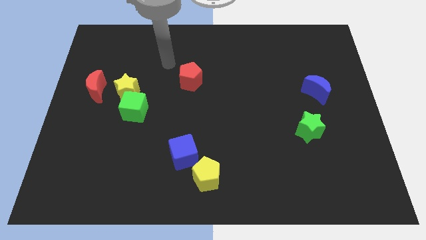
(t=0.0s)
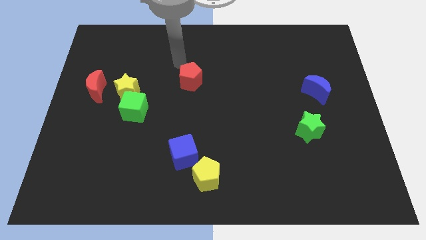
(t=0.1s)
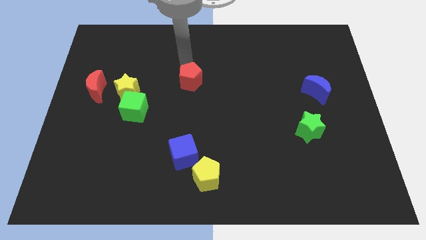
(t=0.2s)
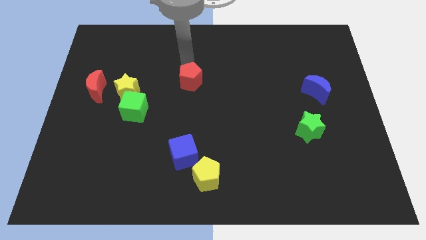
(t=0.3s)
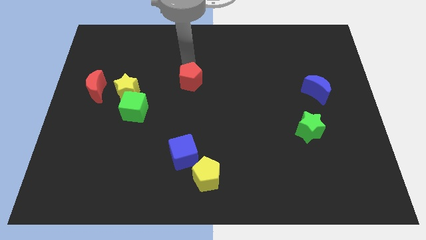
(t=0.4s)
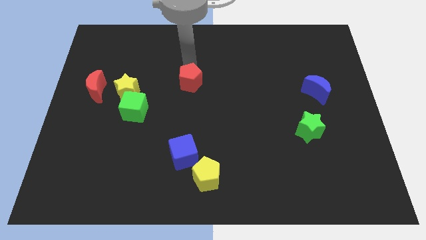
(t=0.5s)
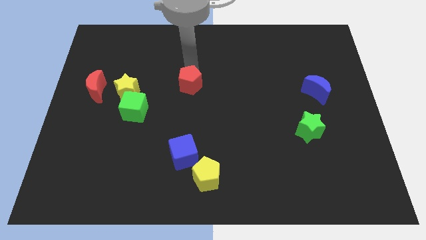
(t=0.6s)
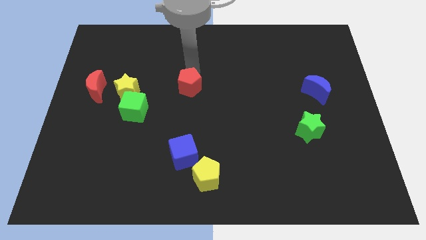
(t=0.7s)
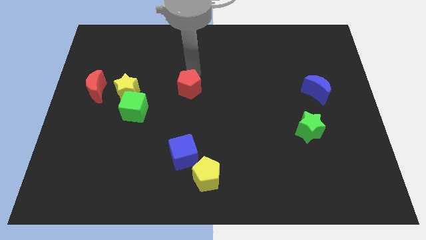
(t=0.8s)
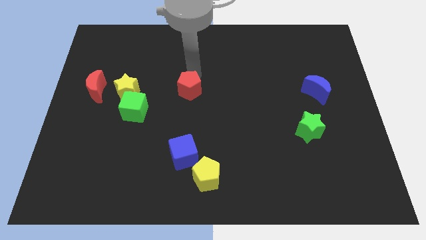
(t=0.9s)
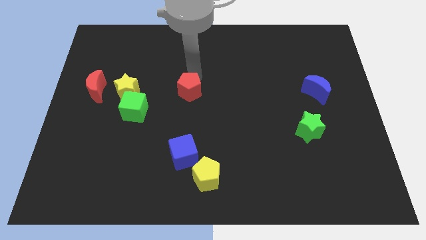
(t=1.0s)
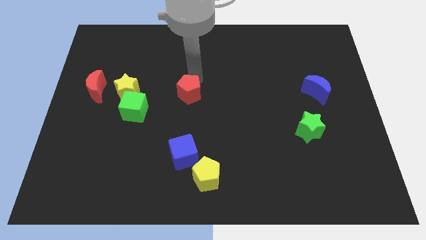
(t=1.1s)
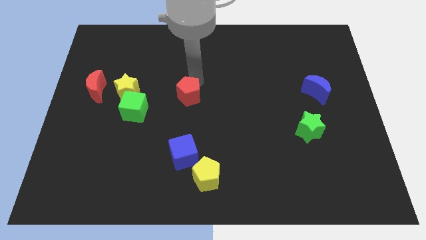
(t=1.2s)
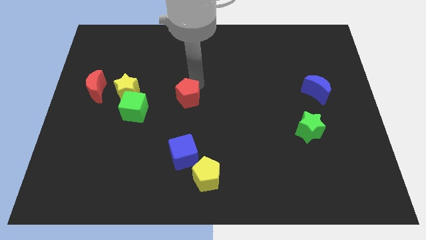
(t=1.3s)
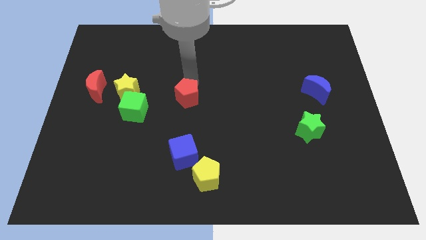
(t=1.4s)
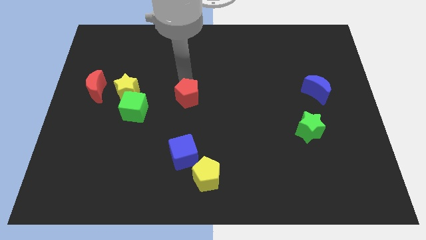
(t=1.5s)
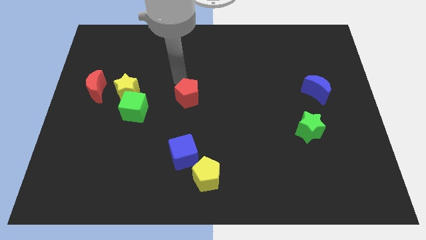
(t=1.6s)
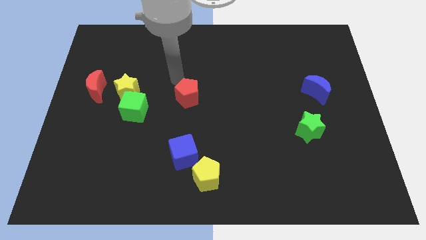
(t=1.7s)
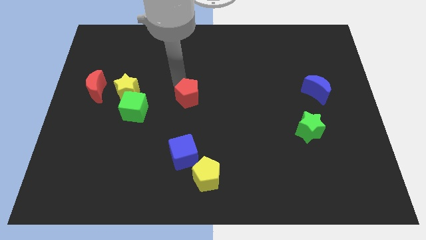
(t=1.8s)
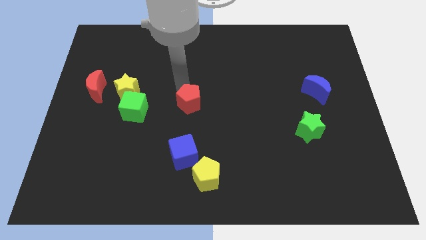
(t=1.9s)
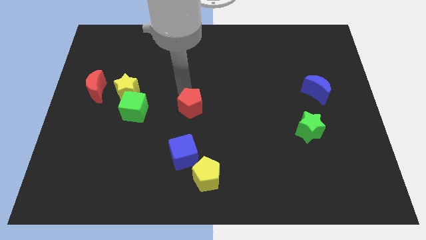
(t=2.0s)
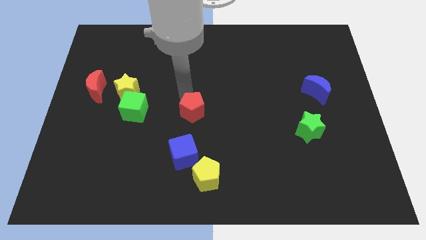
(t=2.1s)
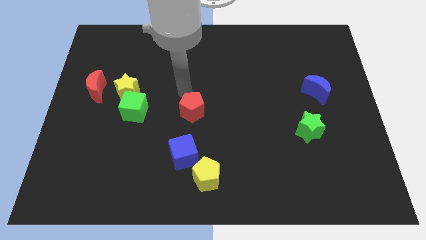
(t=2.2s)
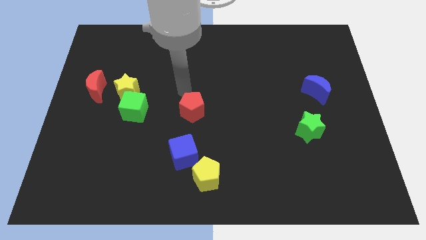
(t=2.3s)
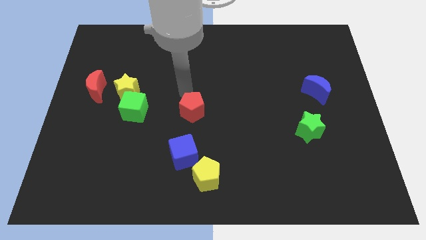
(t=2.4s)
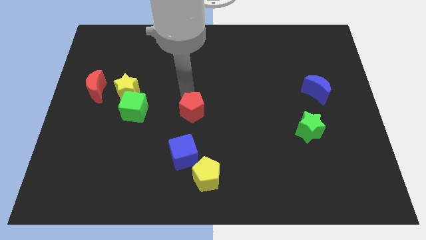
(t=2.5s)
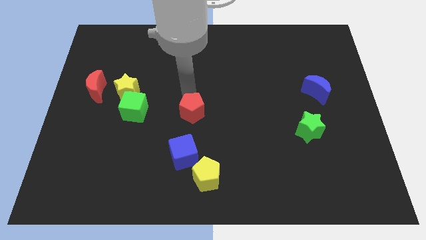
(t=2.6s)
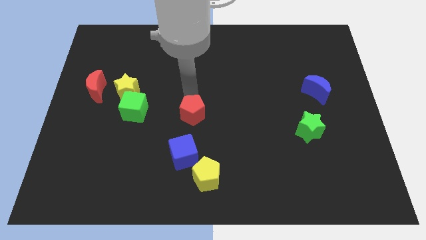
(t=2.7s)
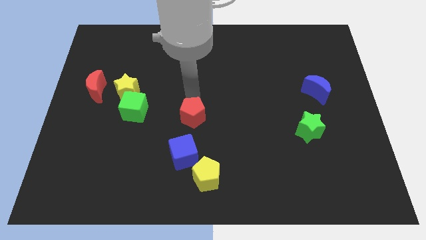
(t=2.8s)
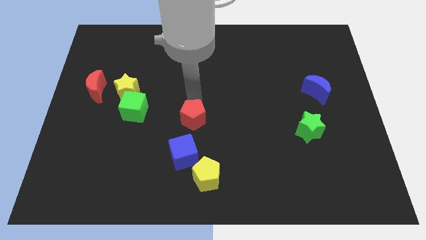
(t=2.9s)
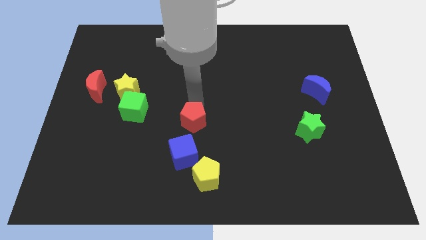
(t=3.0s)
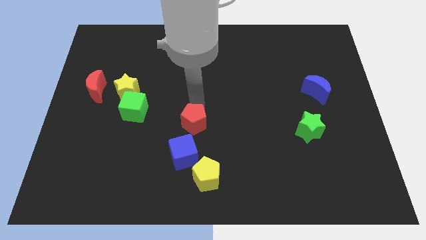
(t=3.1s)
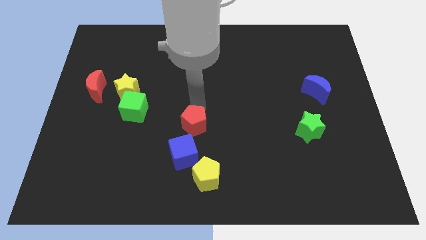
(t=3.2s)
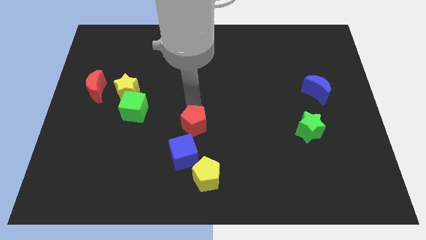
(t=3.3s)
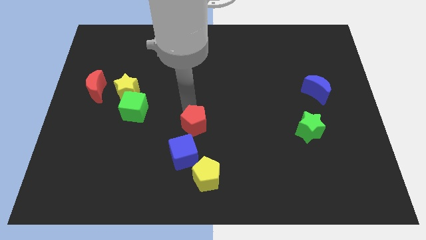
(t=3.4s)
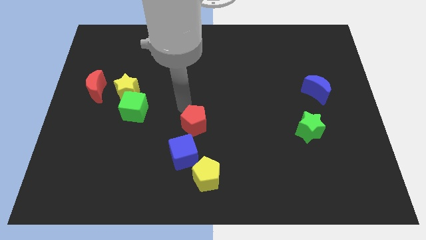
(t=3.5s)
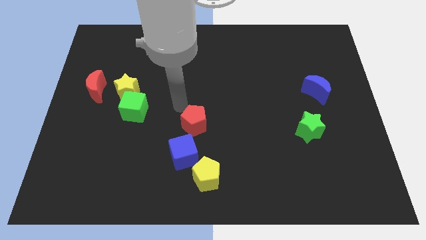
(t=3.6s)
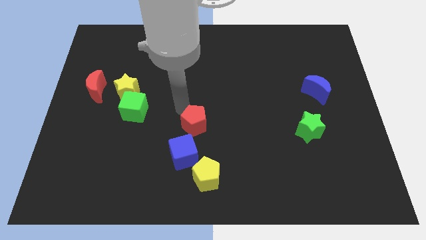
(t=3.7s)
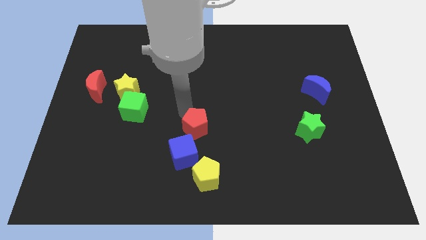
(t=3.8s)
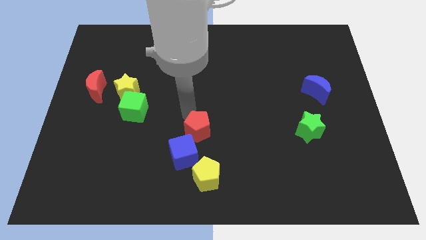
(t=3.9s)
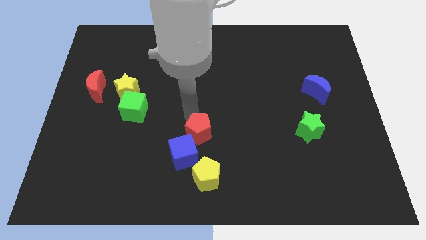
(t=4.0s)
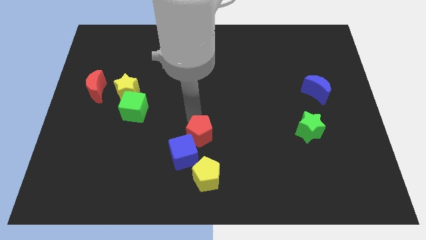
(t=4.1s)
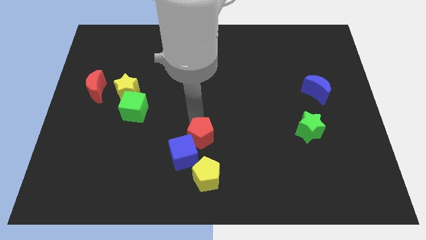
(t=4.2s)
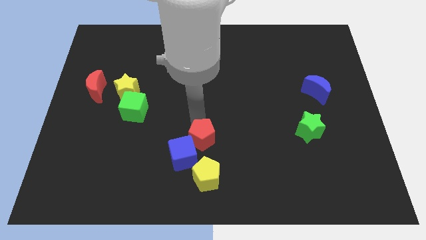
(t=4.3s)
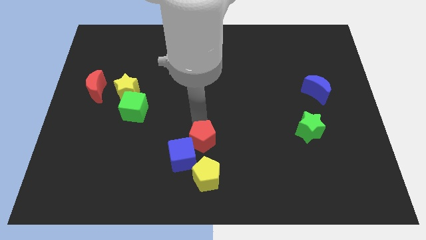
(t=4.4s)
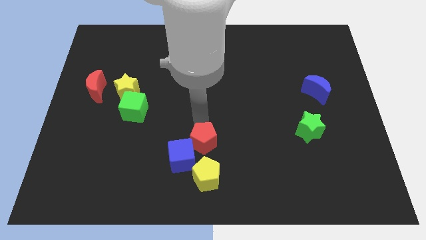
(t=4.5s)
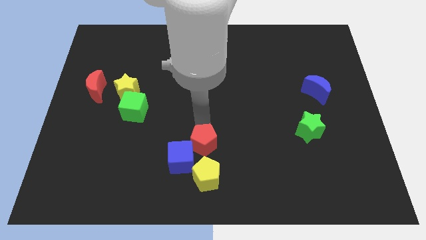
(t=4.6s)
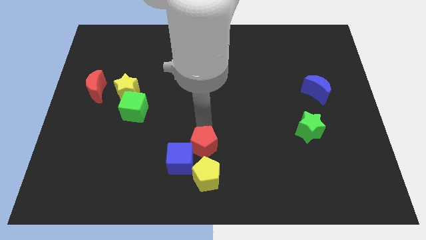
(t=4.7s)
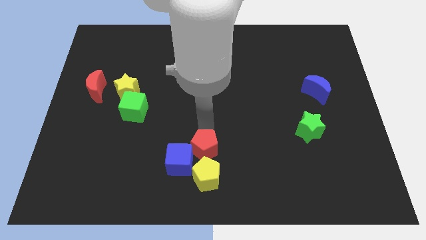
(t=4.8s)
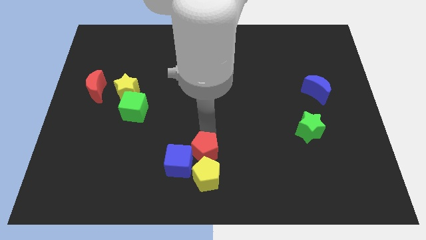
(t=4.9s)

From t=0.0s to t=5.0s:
move the red pentagon next to the yellow pentagon

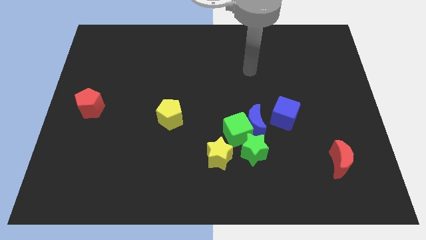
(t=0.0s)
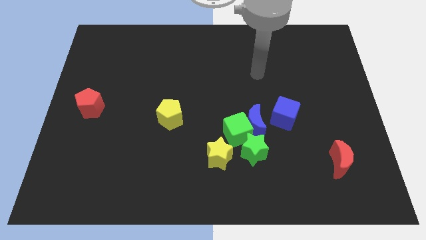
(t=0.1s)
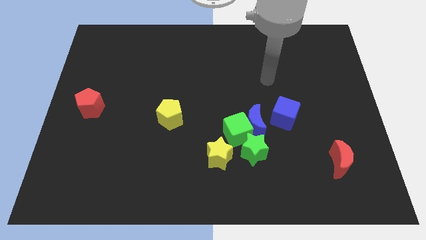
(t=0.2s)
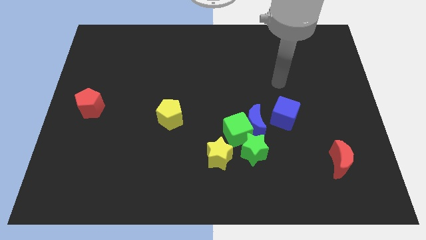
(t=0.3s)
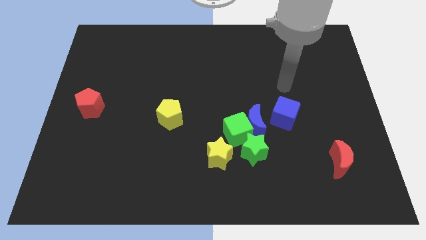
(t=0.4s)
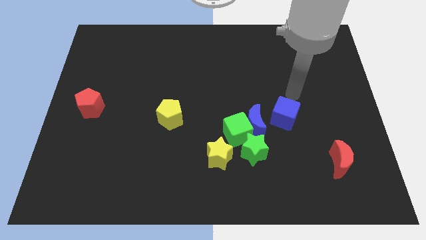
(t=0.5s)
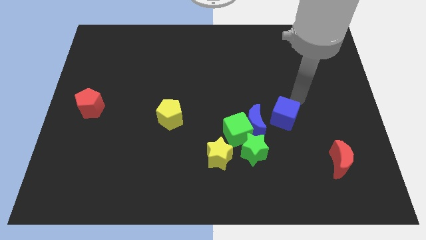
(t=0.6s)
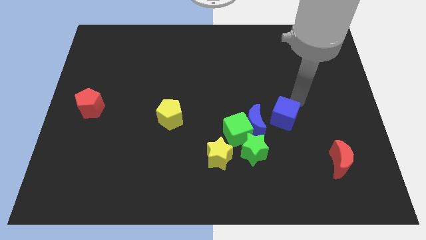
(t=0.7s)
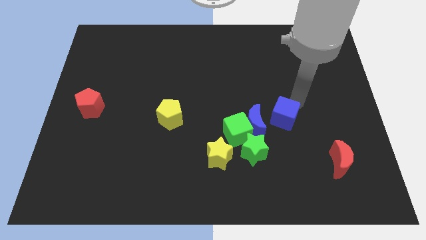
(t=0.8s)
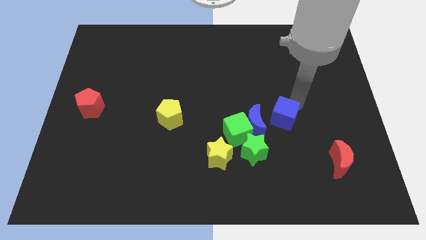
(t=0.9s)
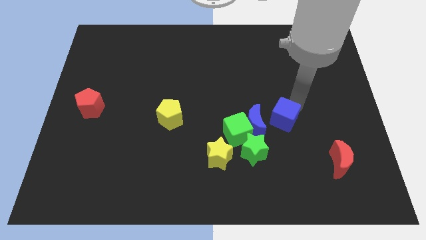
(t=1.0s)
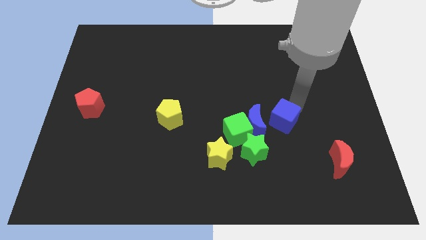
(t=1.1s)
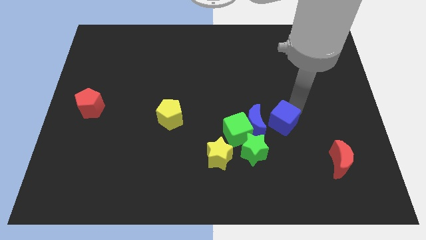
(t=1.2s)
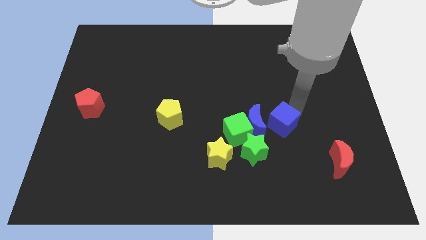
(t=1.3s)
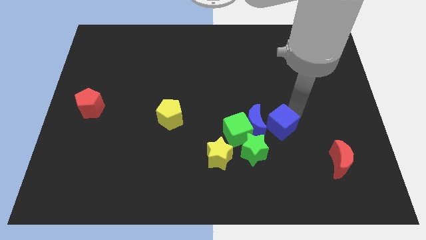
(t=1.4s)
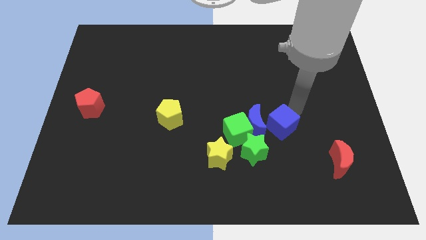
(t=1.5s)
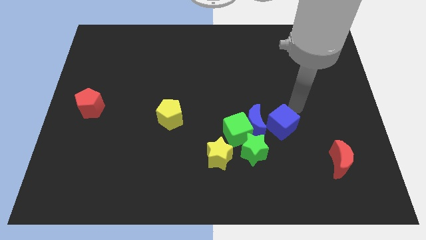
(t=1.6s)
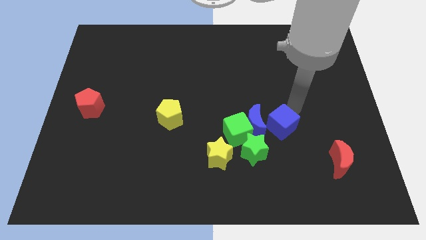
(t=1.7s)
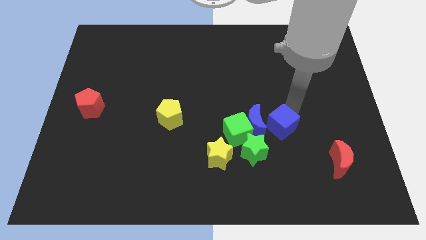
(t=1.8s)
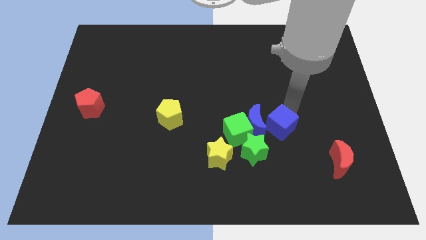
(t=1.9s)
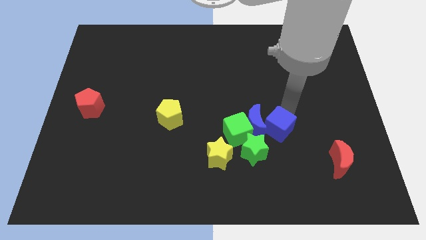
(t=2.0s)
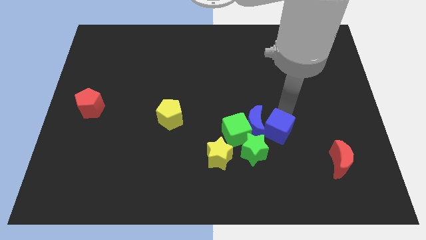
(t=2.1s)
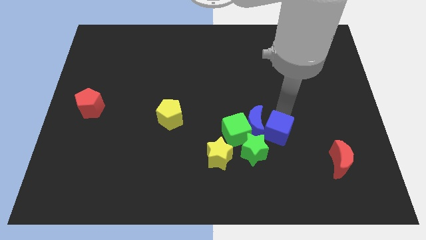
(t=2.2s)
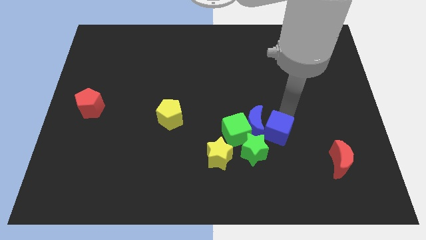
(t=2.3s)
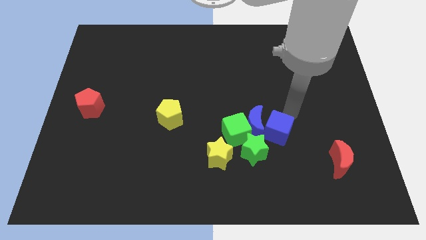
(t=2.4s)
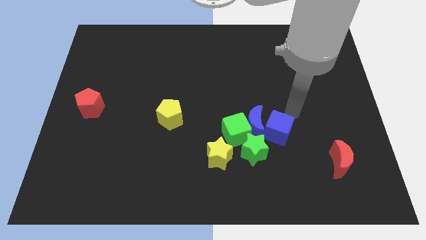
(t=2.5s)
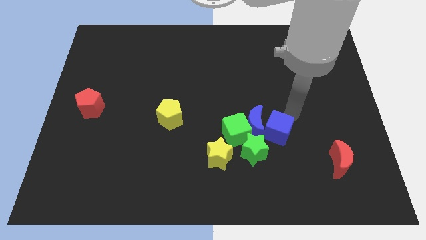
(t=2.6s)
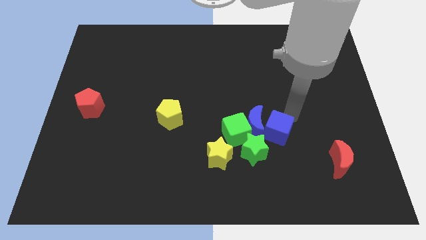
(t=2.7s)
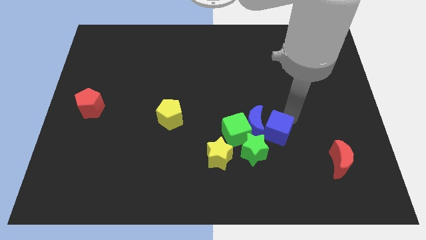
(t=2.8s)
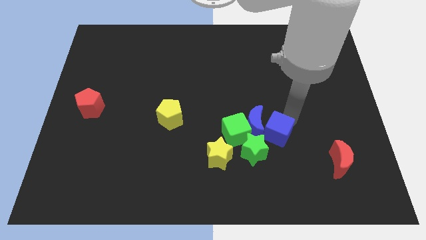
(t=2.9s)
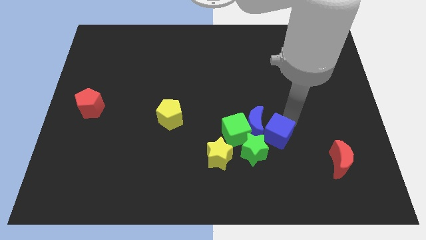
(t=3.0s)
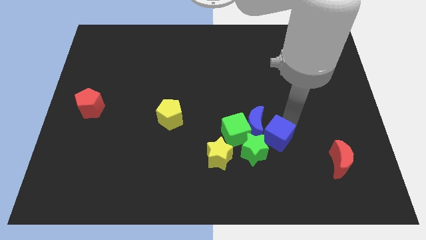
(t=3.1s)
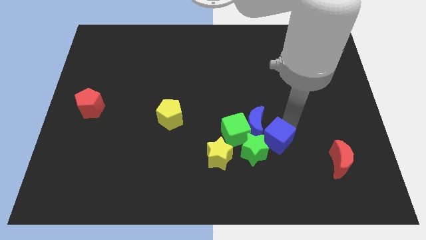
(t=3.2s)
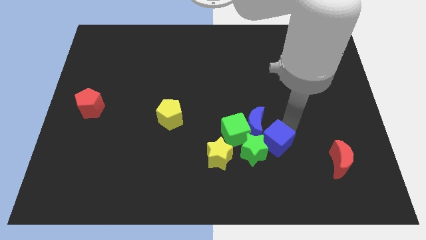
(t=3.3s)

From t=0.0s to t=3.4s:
slide the blue cube to the green star
